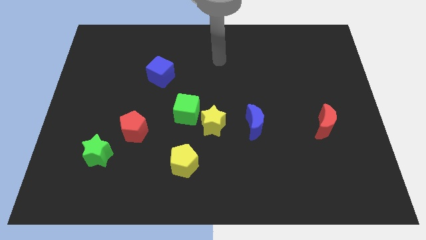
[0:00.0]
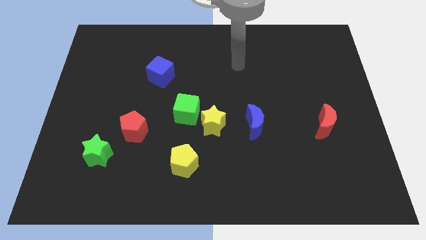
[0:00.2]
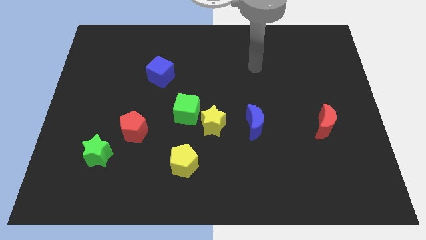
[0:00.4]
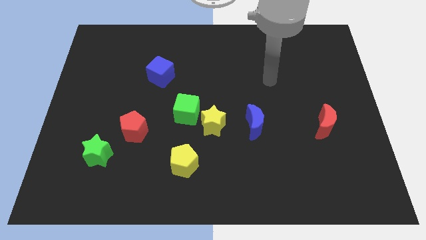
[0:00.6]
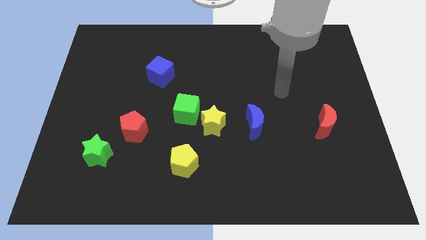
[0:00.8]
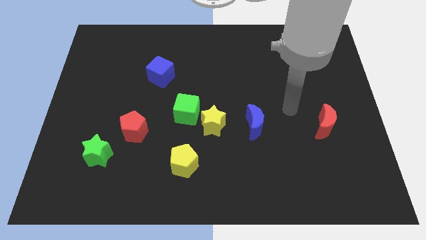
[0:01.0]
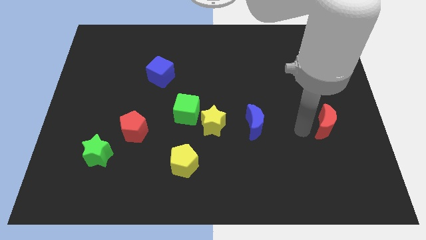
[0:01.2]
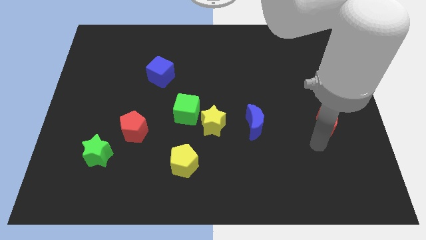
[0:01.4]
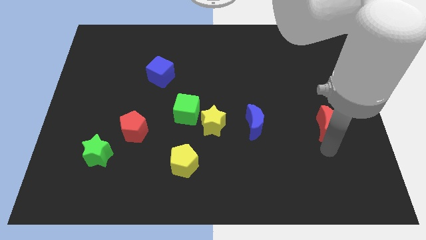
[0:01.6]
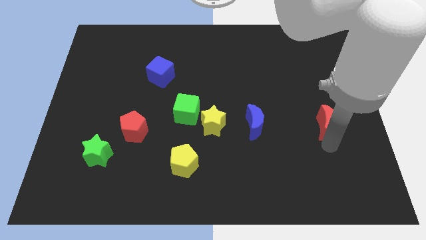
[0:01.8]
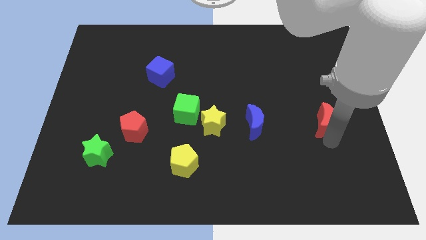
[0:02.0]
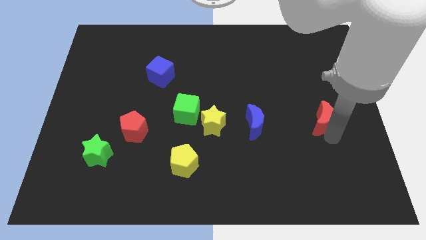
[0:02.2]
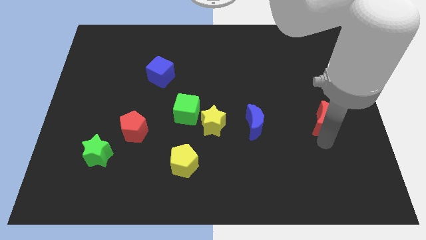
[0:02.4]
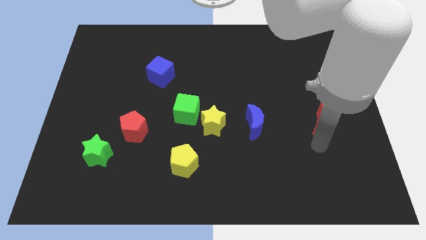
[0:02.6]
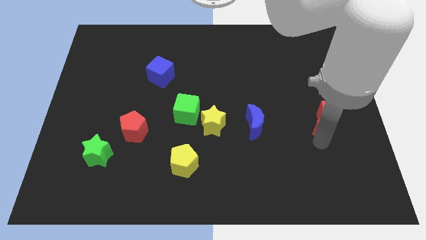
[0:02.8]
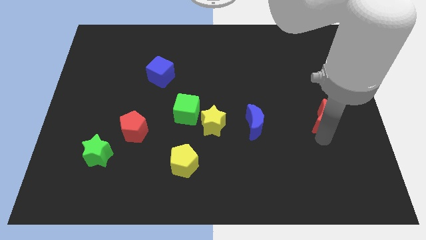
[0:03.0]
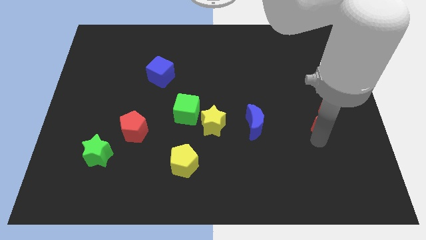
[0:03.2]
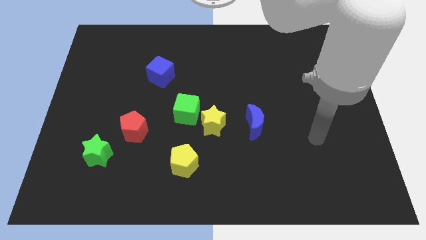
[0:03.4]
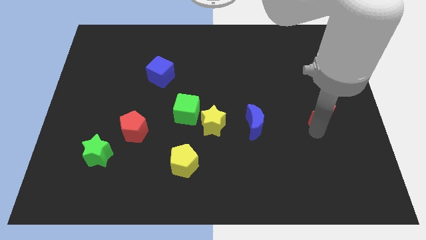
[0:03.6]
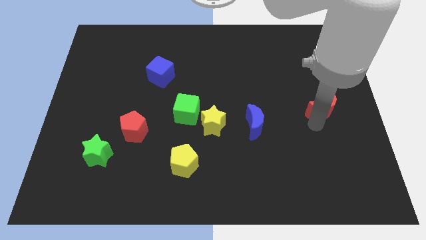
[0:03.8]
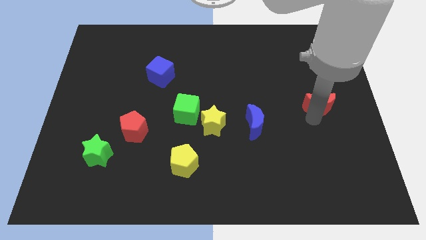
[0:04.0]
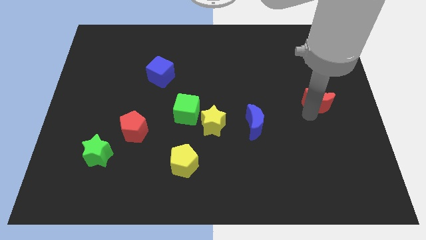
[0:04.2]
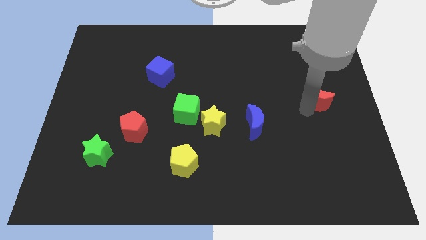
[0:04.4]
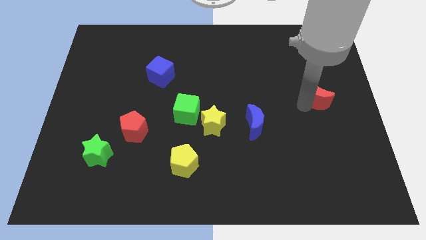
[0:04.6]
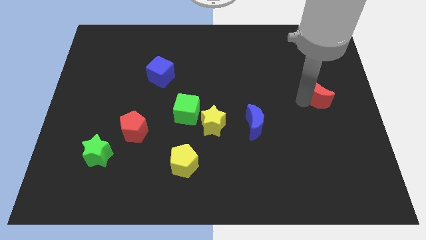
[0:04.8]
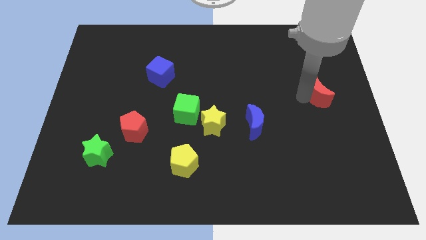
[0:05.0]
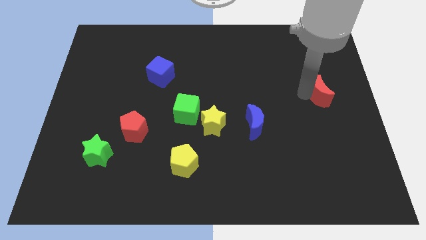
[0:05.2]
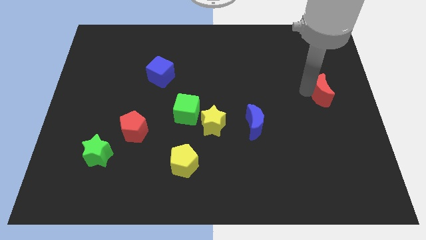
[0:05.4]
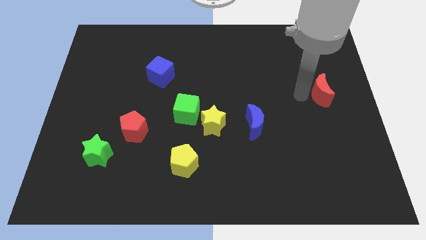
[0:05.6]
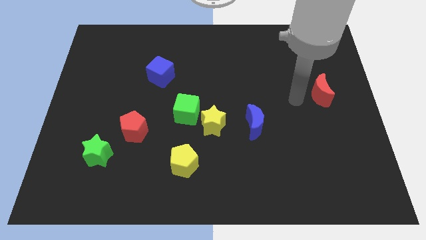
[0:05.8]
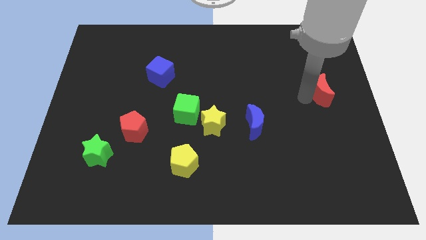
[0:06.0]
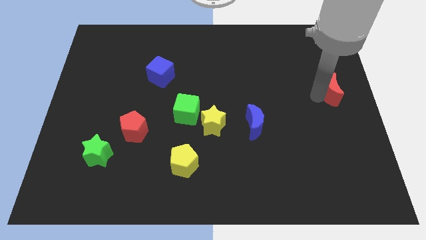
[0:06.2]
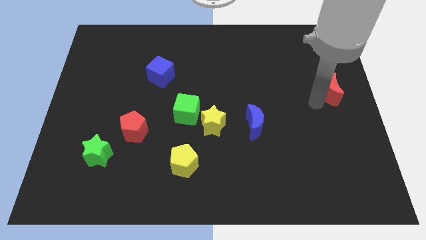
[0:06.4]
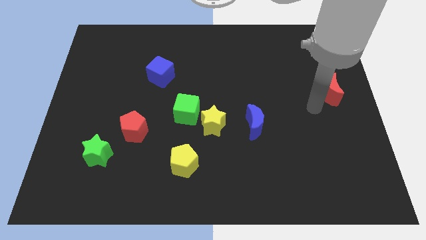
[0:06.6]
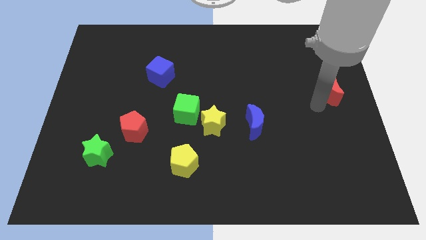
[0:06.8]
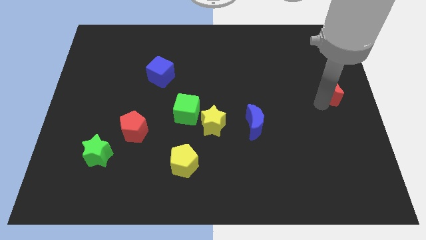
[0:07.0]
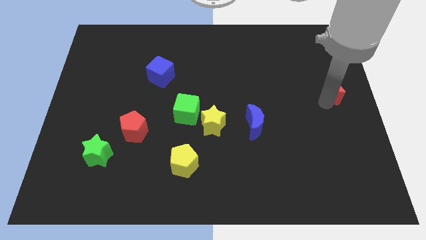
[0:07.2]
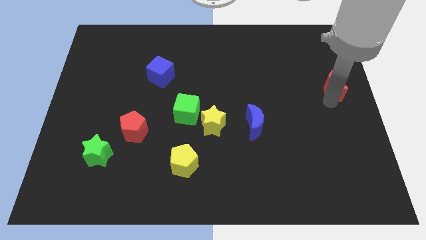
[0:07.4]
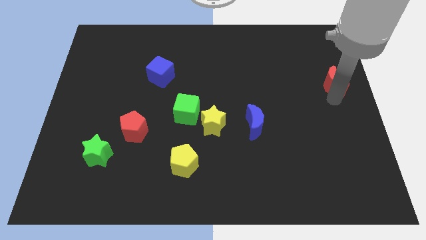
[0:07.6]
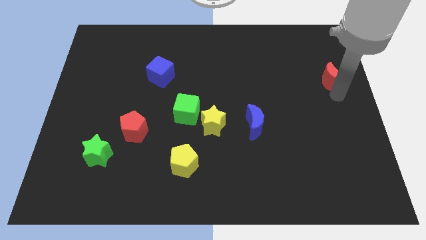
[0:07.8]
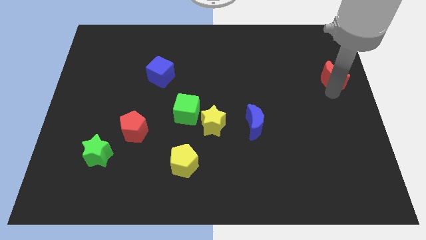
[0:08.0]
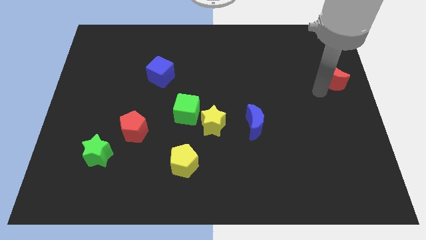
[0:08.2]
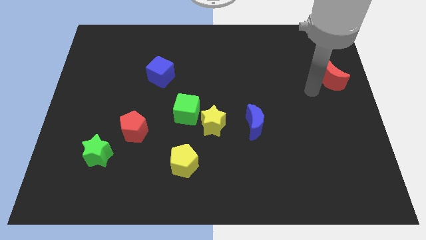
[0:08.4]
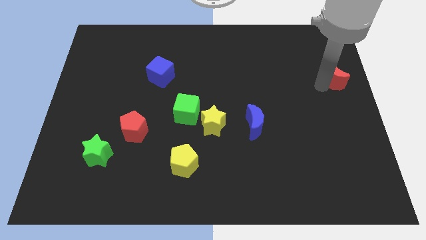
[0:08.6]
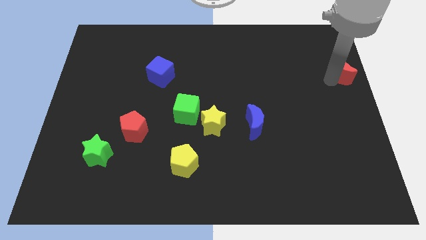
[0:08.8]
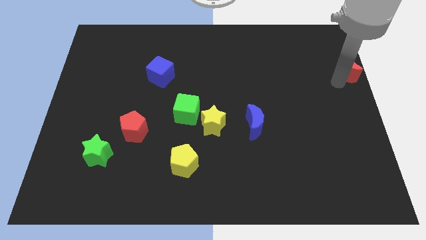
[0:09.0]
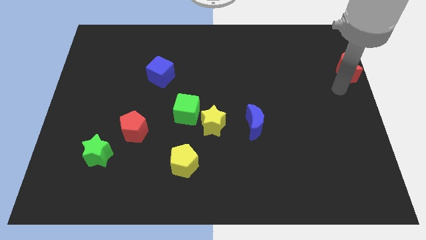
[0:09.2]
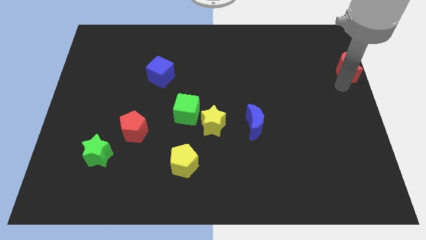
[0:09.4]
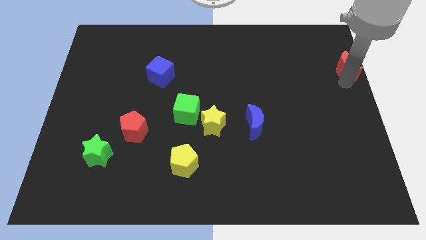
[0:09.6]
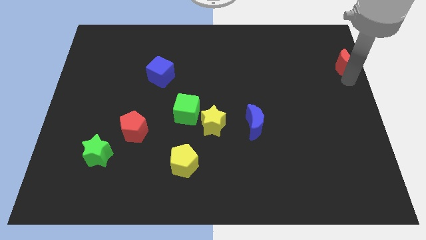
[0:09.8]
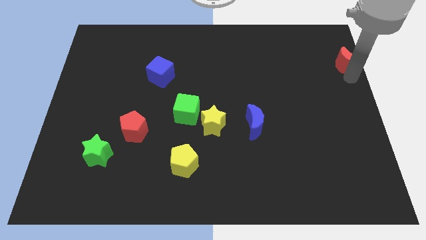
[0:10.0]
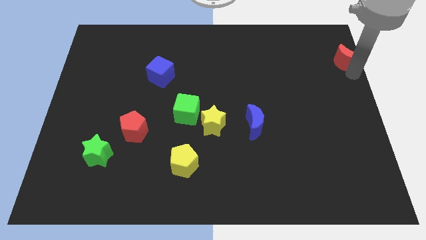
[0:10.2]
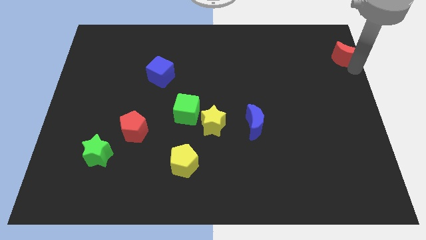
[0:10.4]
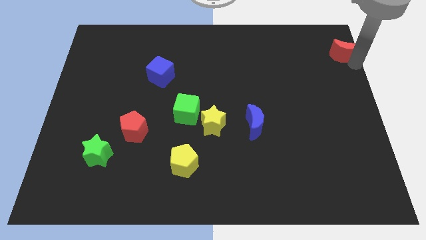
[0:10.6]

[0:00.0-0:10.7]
move the red moon to the top right

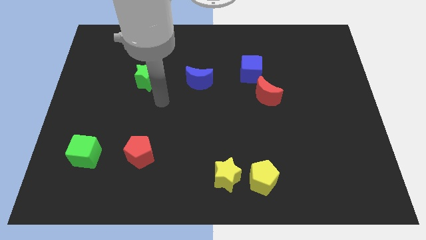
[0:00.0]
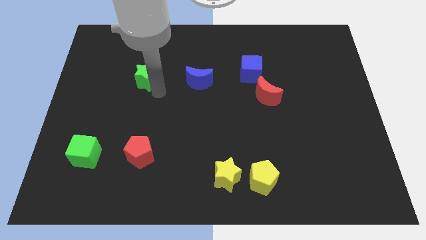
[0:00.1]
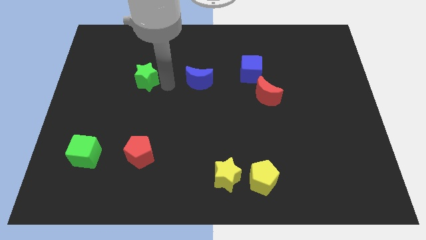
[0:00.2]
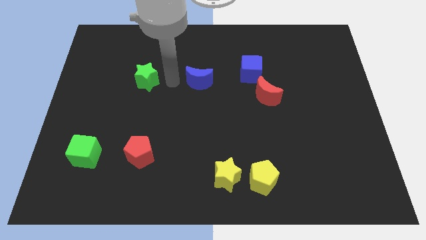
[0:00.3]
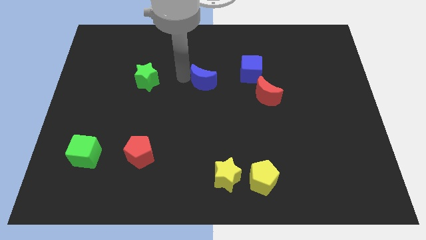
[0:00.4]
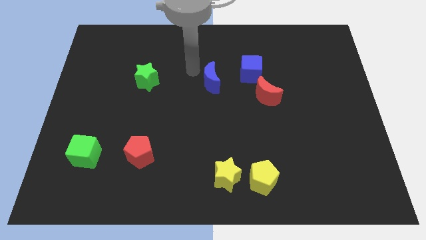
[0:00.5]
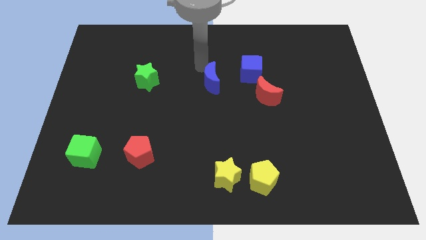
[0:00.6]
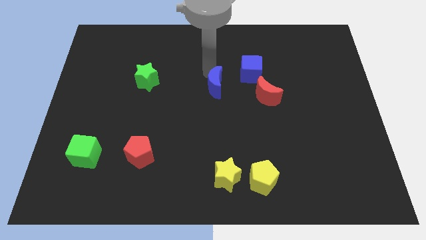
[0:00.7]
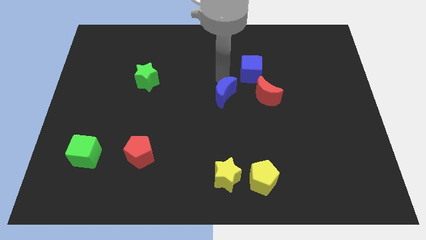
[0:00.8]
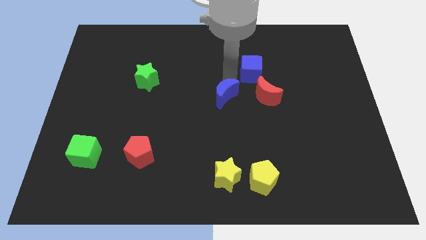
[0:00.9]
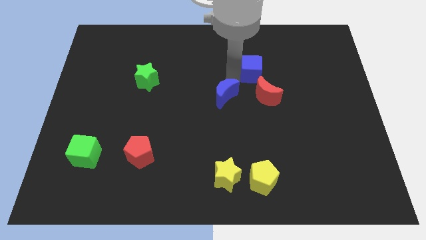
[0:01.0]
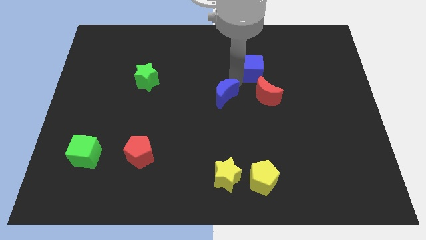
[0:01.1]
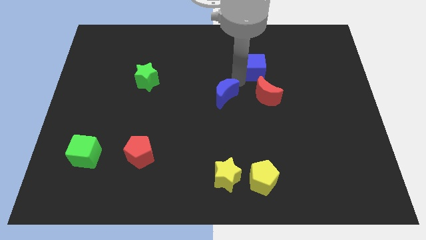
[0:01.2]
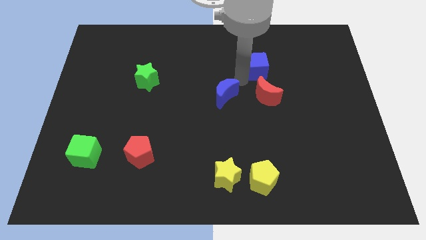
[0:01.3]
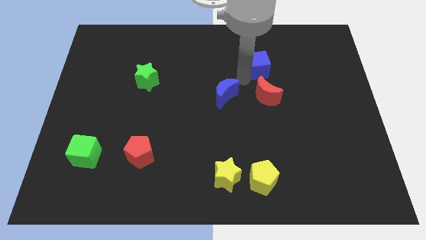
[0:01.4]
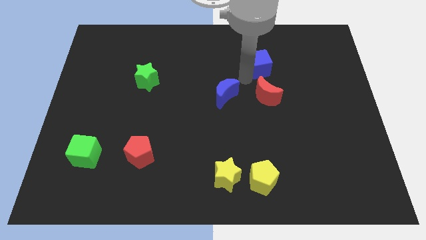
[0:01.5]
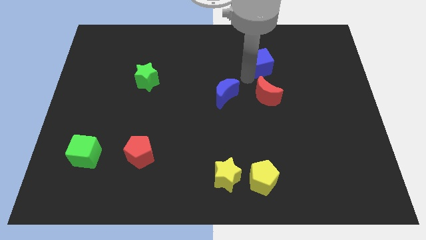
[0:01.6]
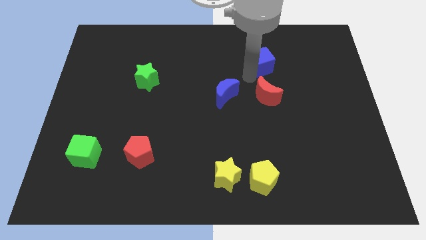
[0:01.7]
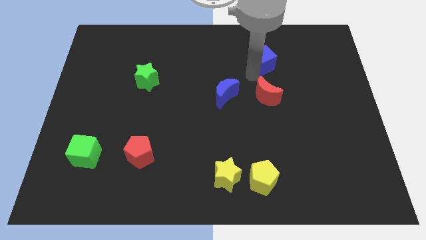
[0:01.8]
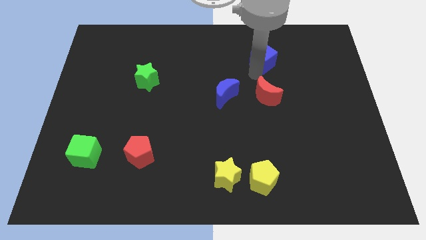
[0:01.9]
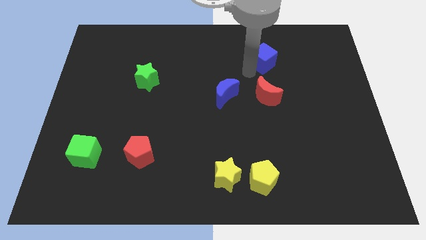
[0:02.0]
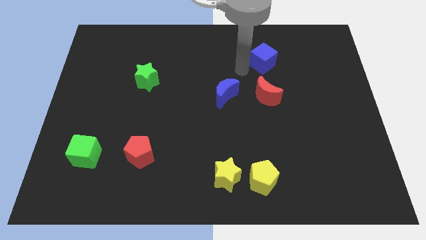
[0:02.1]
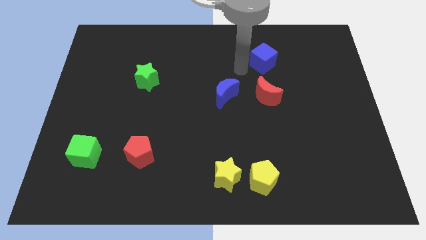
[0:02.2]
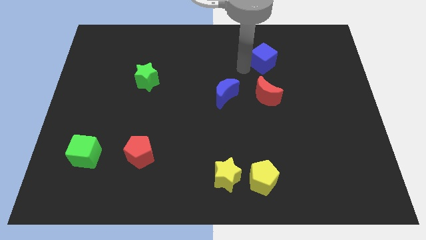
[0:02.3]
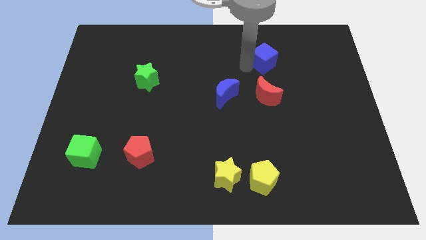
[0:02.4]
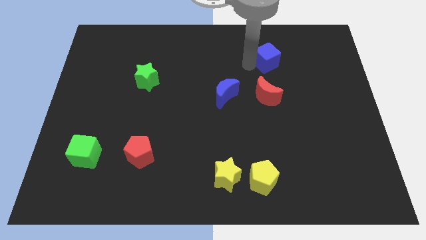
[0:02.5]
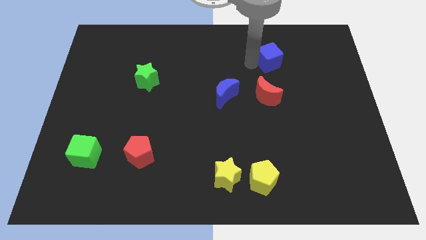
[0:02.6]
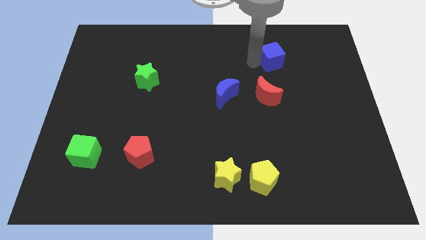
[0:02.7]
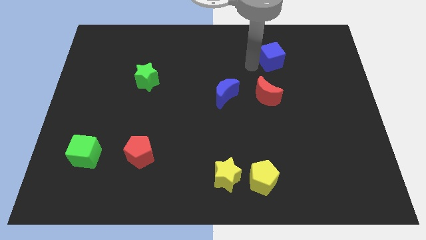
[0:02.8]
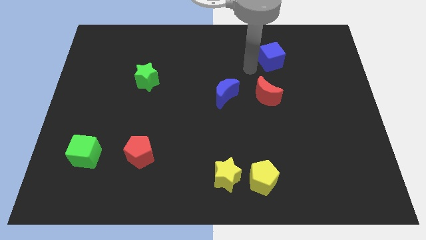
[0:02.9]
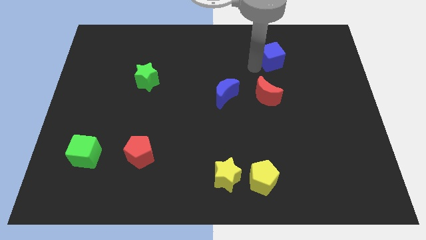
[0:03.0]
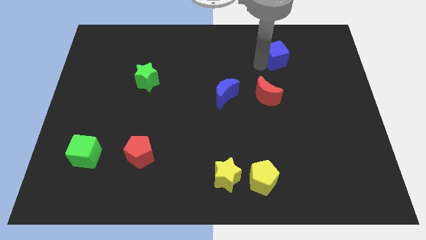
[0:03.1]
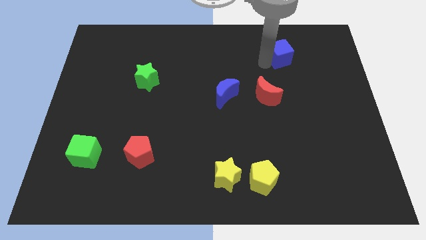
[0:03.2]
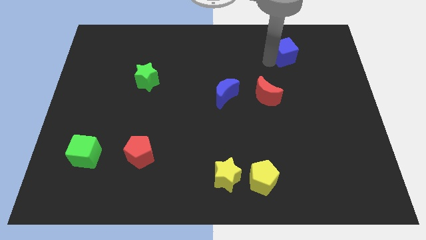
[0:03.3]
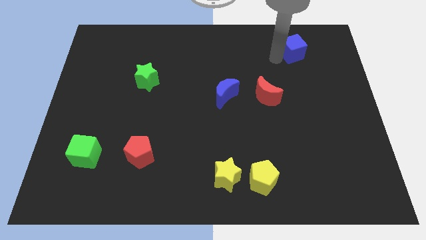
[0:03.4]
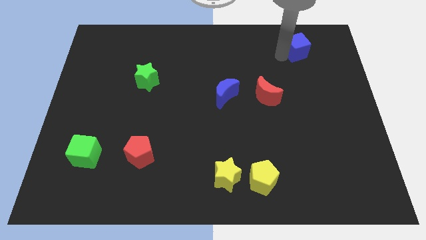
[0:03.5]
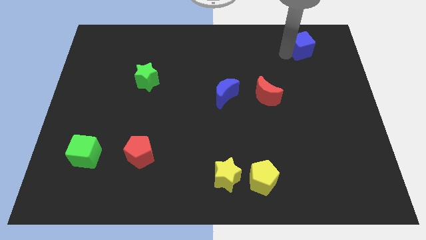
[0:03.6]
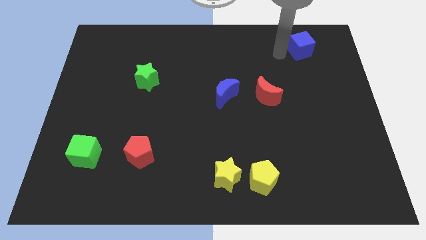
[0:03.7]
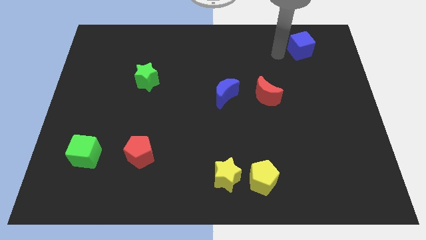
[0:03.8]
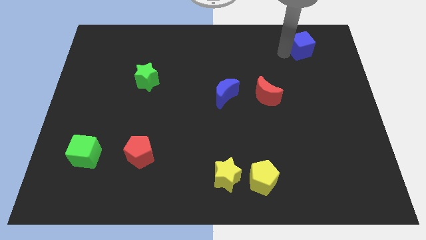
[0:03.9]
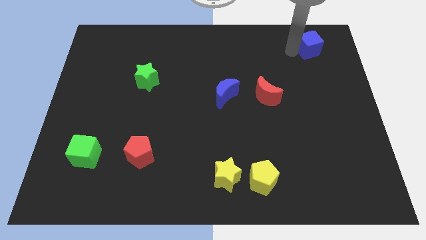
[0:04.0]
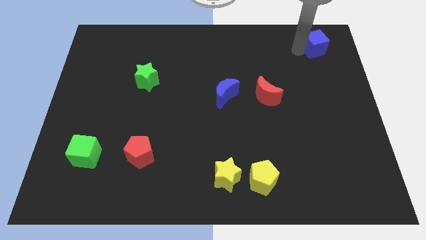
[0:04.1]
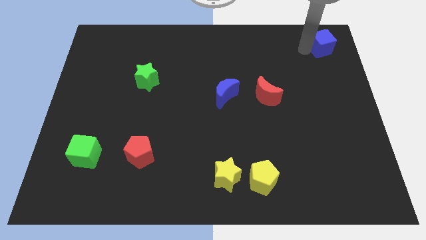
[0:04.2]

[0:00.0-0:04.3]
push the blue cube to the top right
